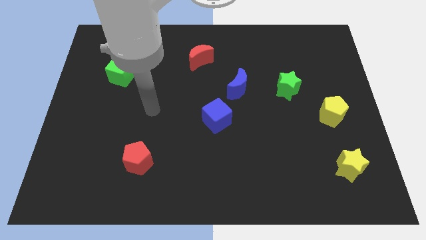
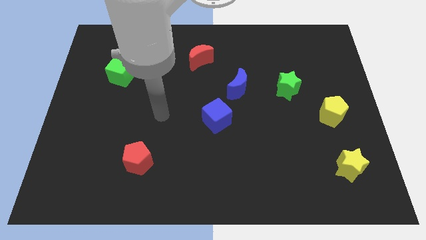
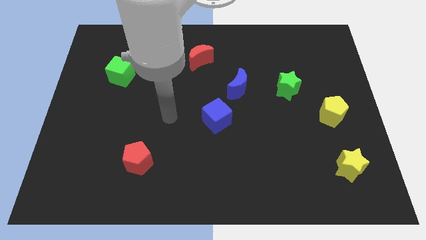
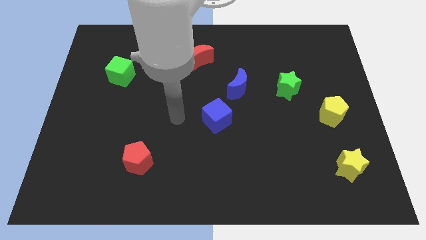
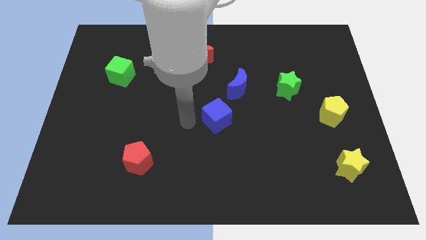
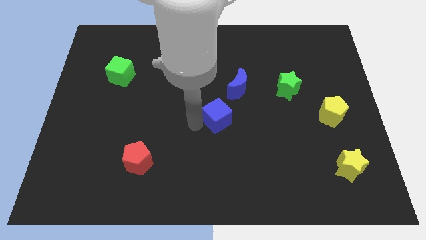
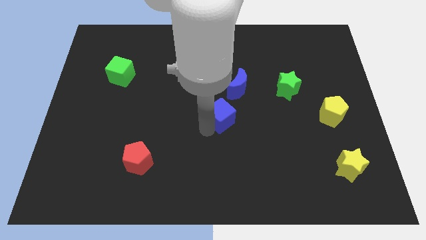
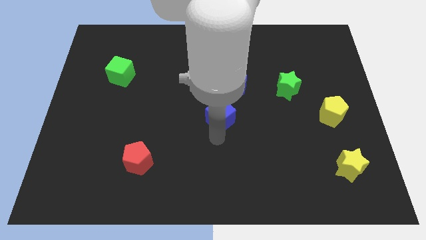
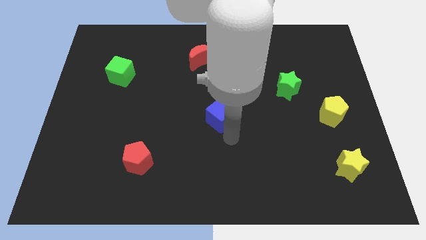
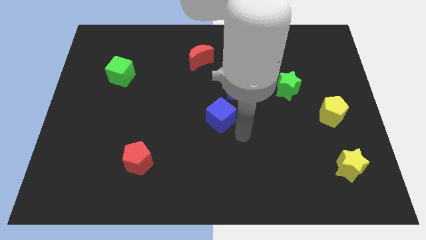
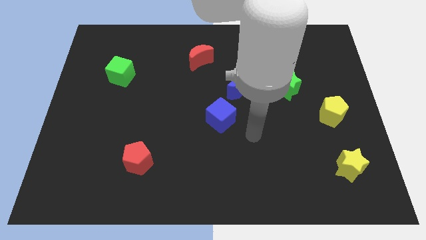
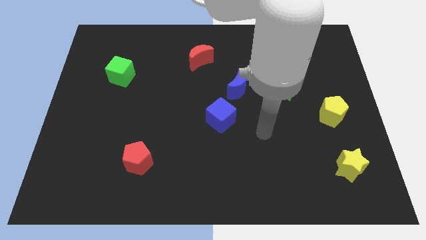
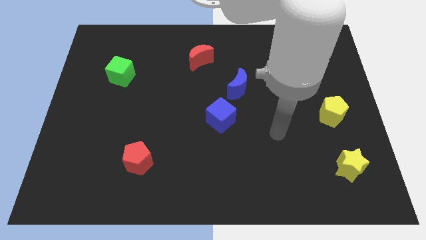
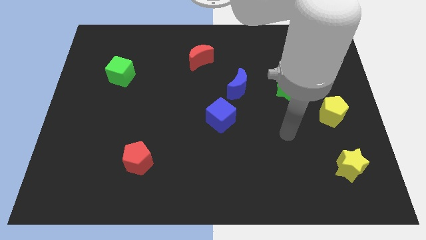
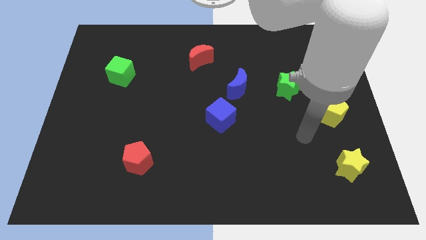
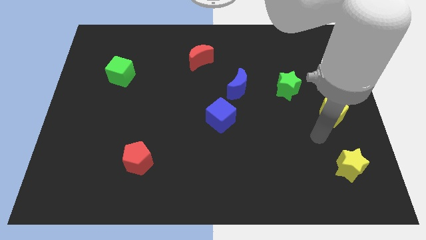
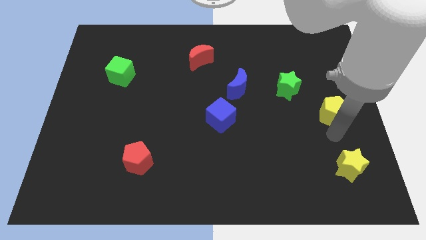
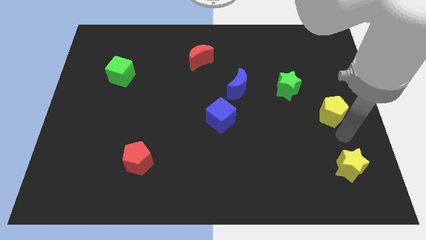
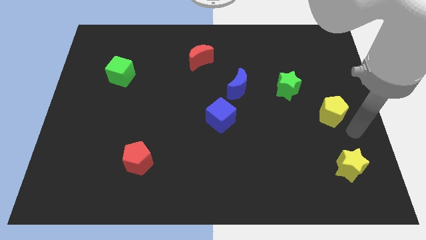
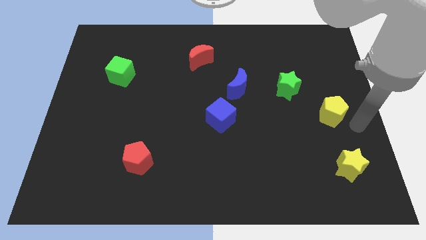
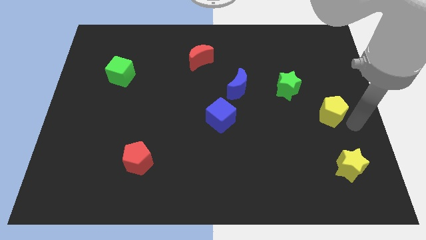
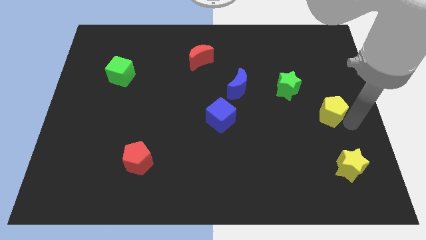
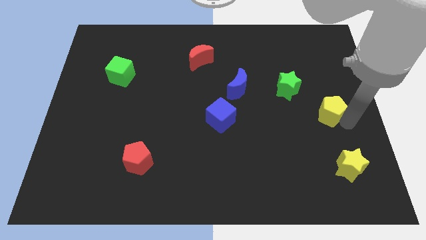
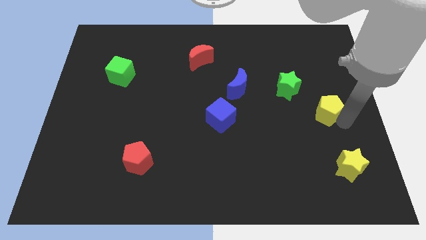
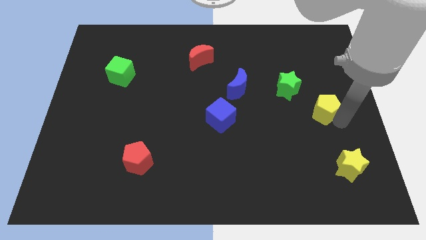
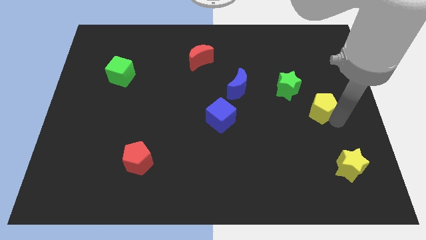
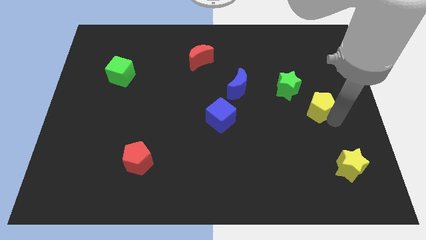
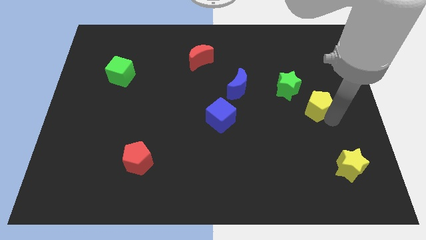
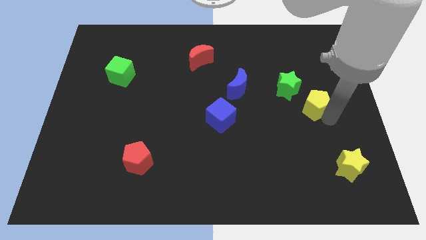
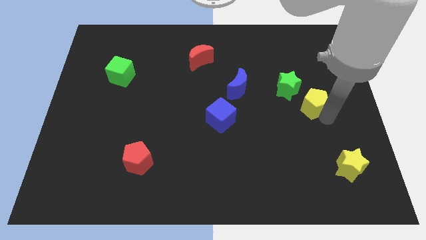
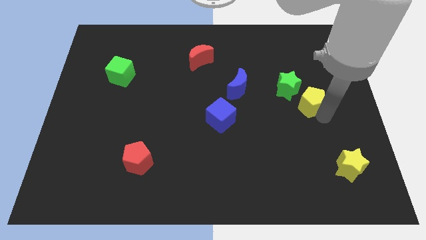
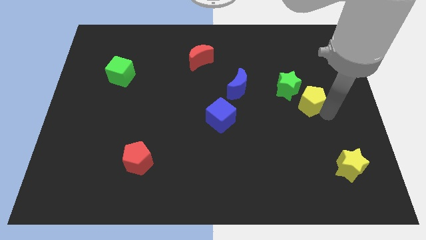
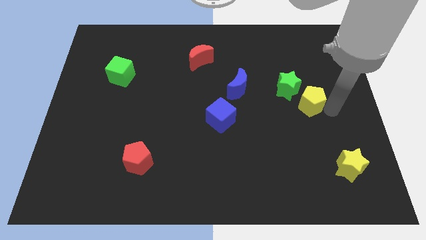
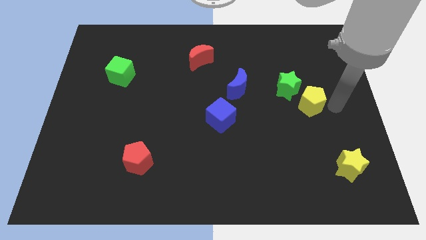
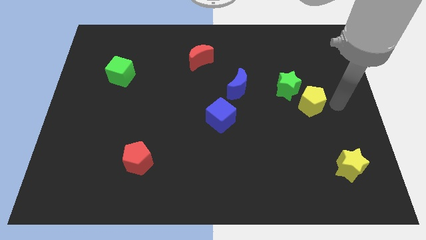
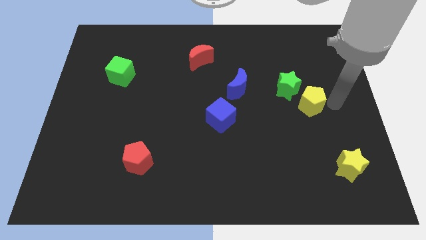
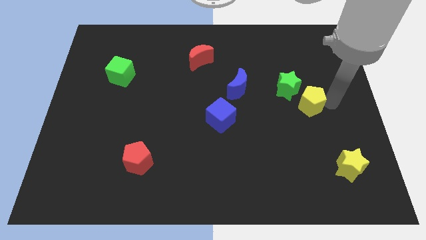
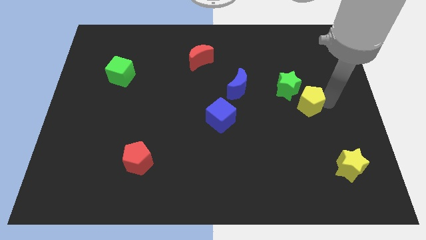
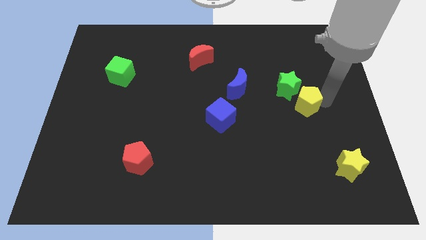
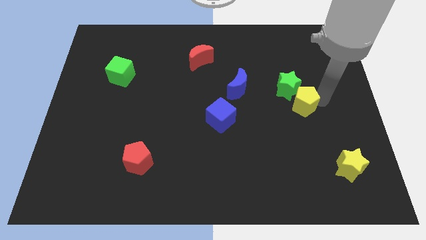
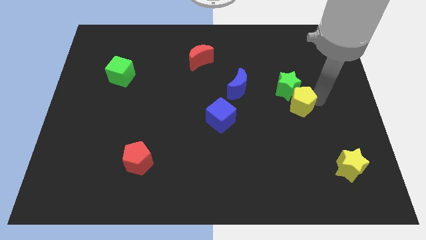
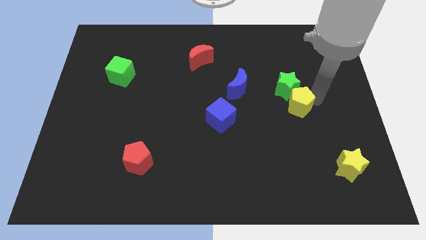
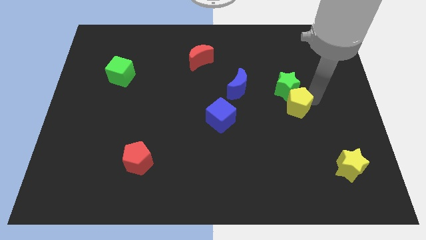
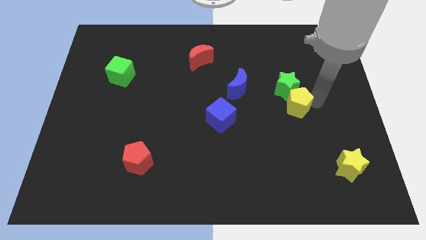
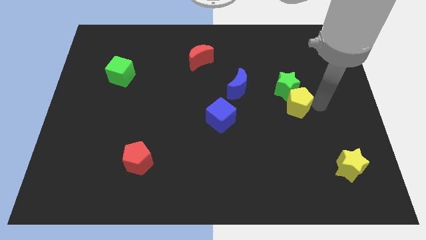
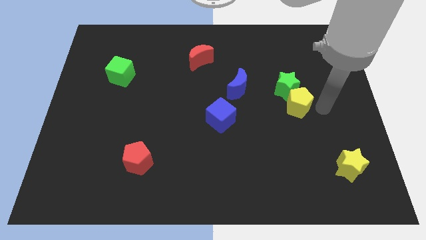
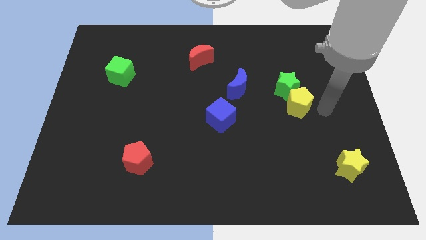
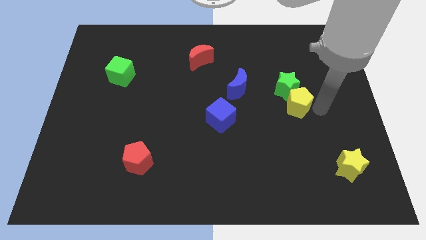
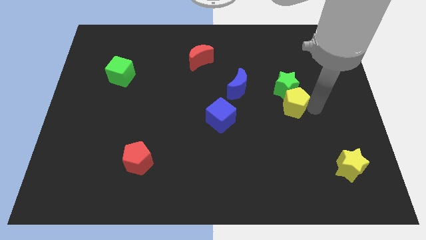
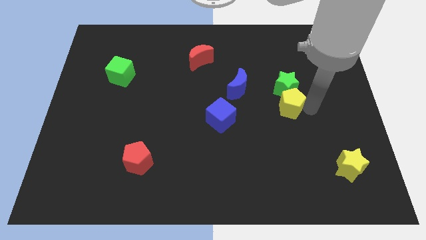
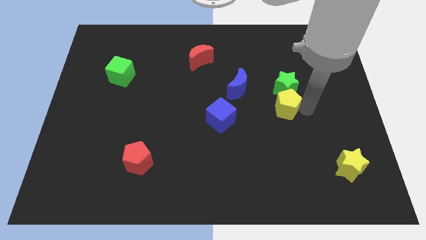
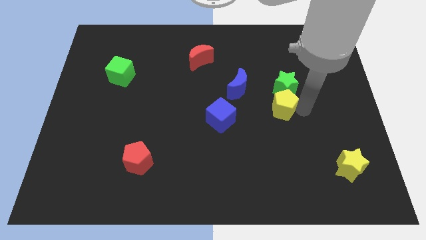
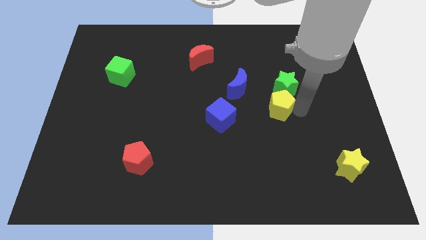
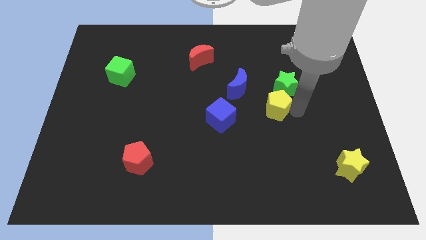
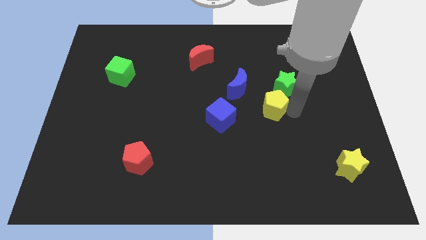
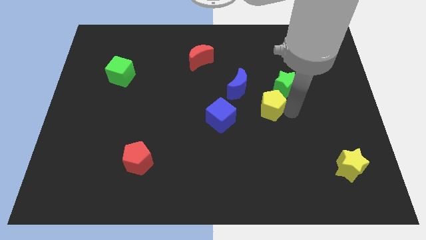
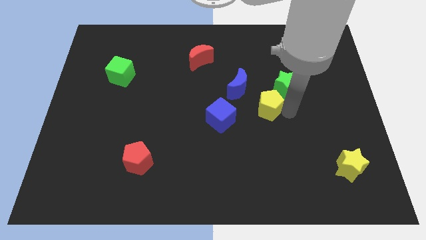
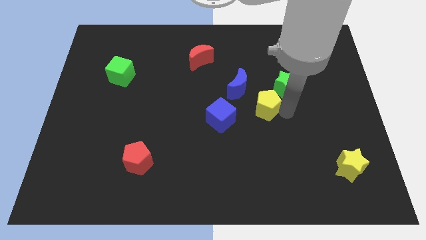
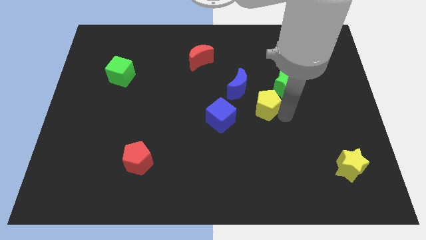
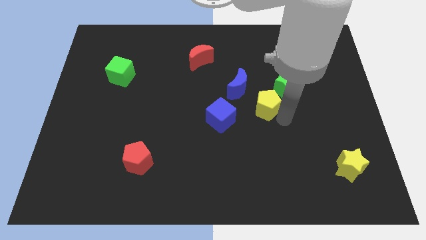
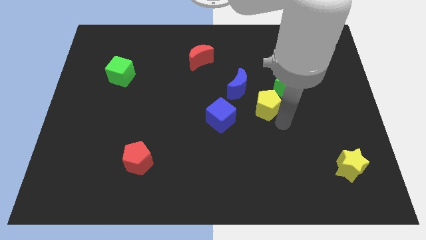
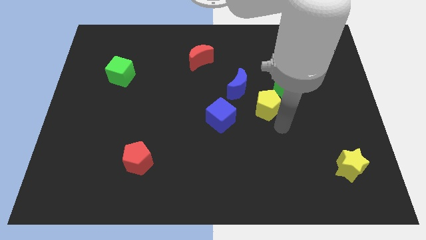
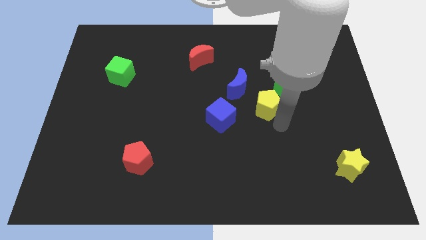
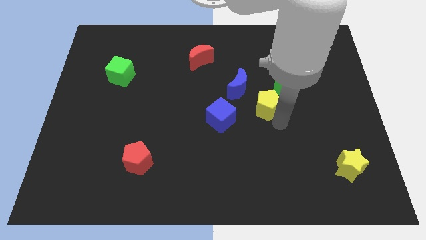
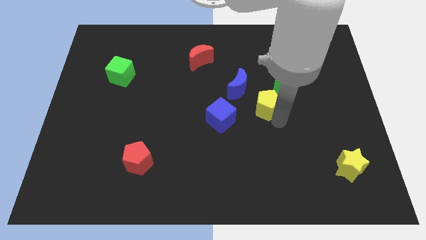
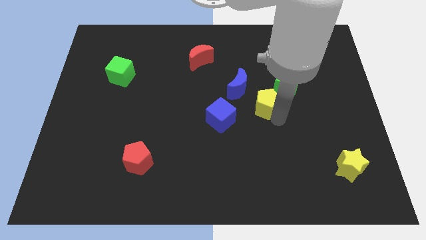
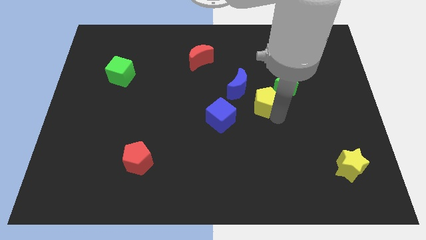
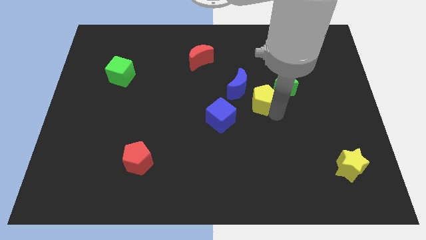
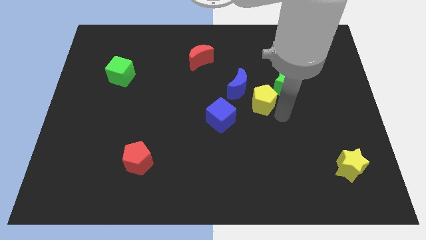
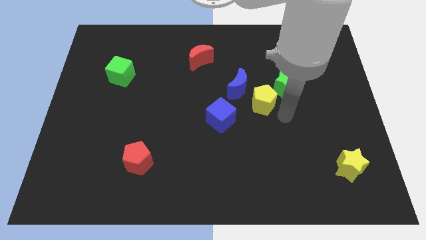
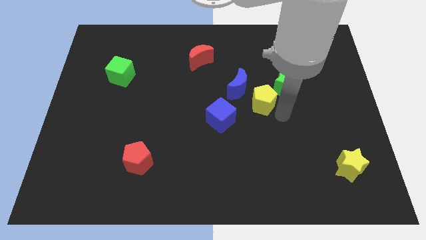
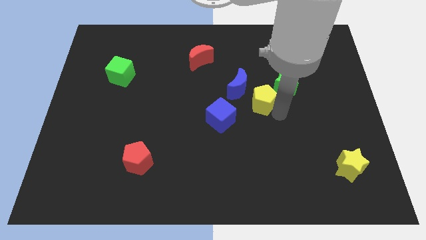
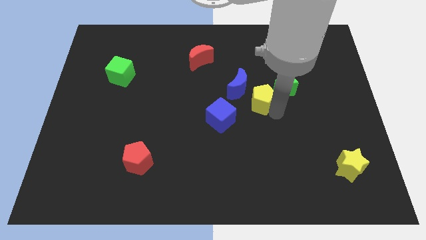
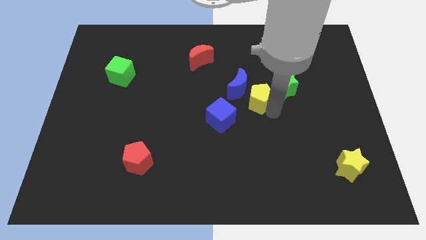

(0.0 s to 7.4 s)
put the yellow pentagon to the blue moon
